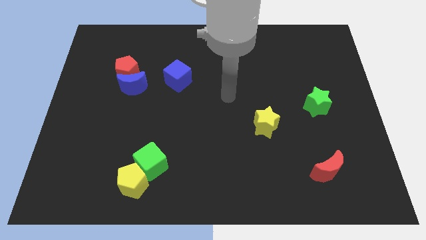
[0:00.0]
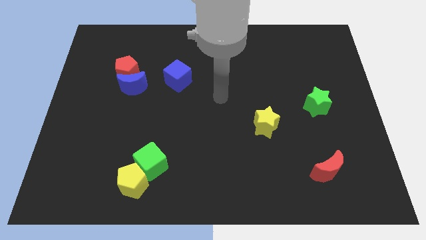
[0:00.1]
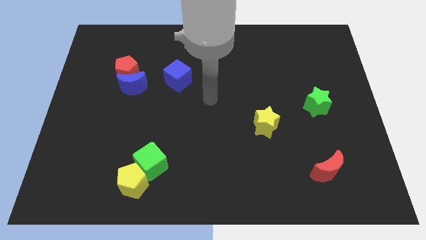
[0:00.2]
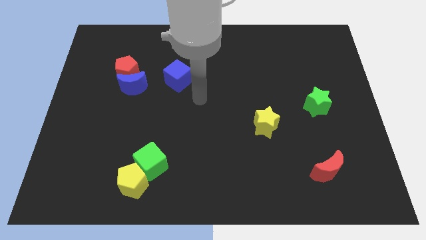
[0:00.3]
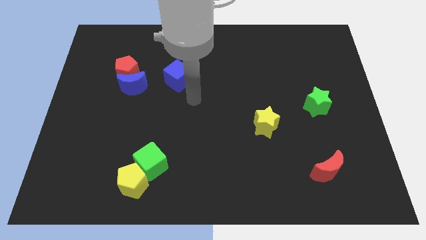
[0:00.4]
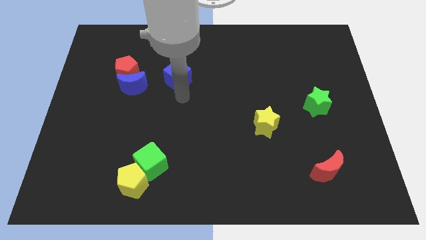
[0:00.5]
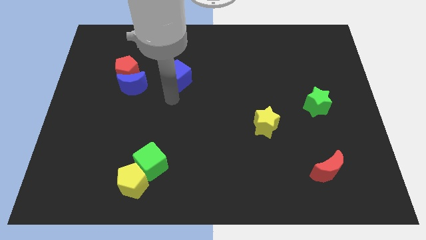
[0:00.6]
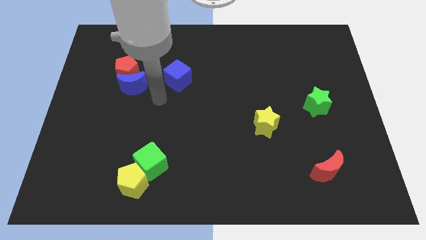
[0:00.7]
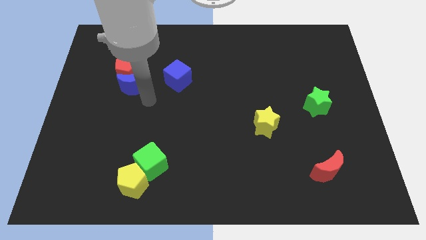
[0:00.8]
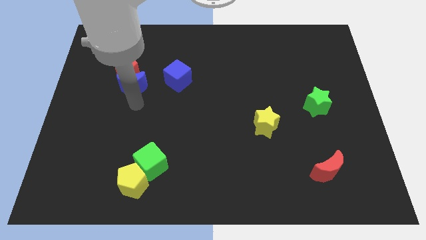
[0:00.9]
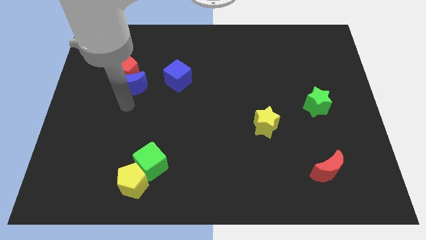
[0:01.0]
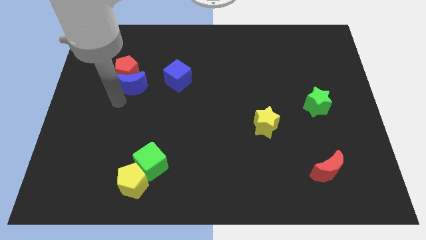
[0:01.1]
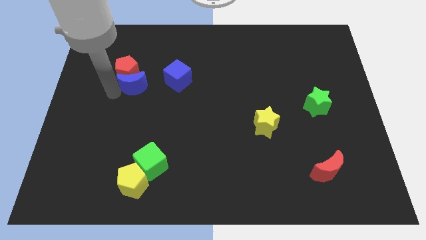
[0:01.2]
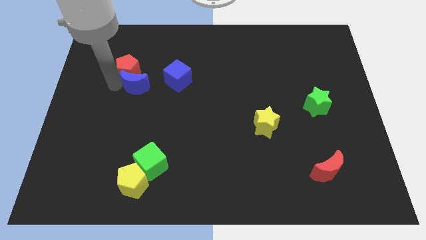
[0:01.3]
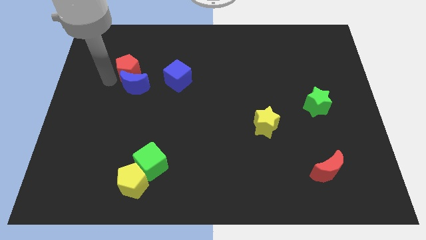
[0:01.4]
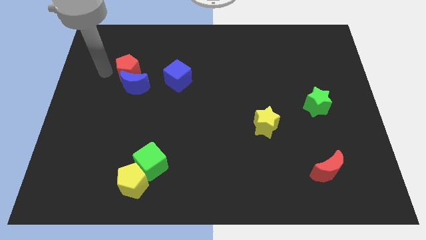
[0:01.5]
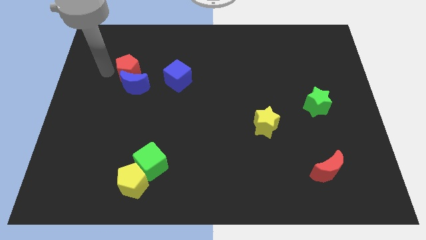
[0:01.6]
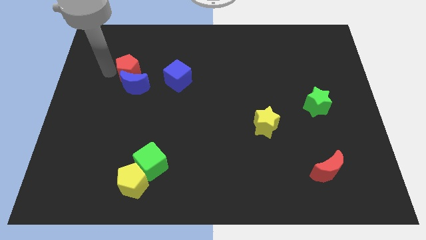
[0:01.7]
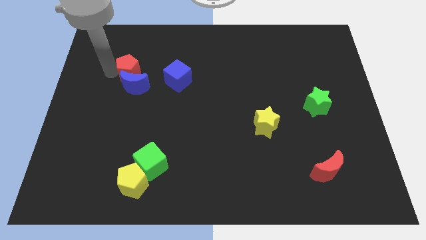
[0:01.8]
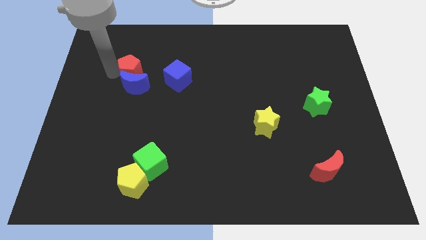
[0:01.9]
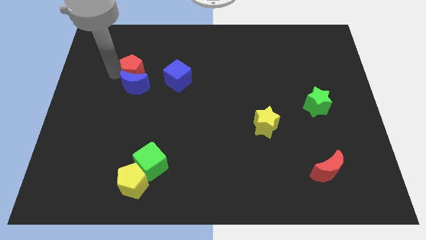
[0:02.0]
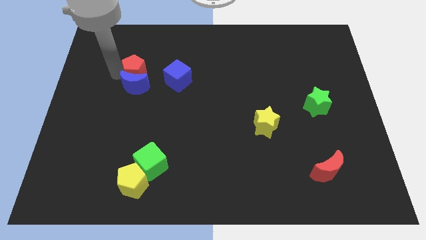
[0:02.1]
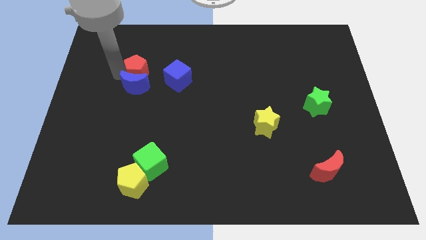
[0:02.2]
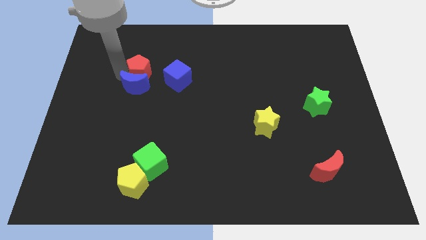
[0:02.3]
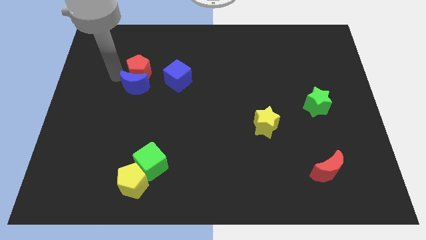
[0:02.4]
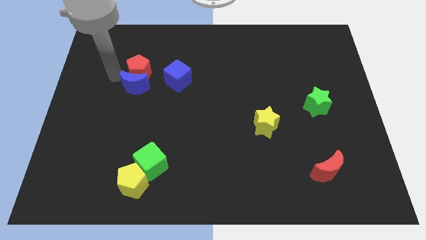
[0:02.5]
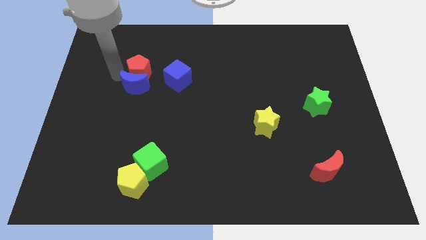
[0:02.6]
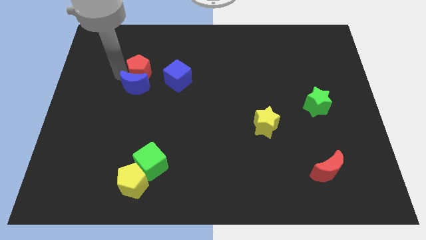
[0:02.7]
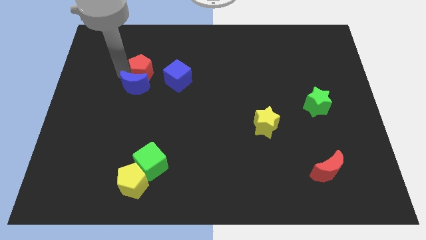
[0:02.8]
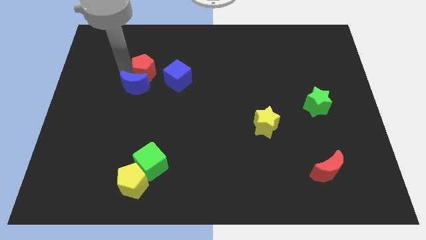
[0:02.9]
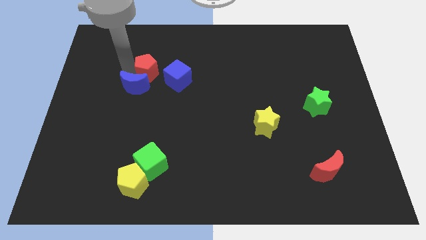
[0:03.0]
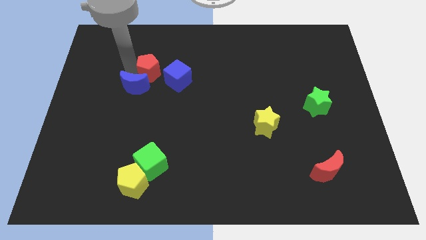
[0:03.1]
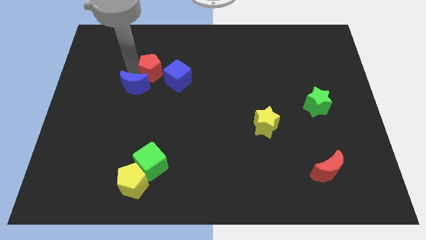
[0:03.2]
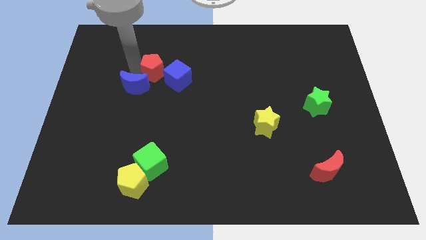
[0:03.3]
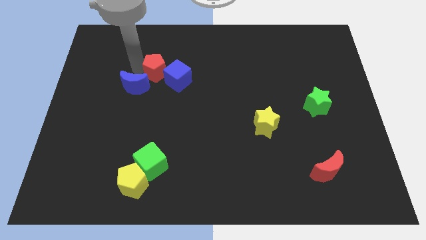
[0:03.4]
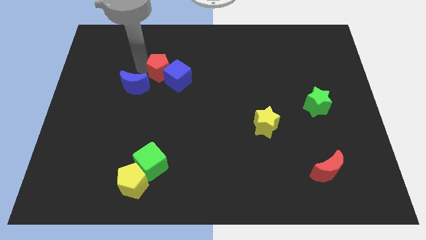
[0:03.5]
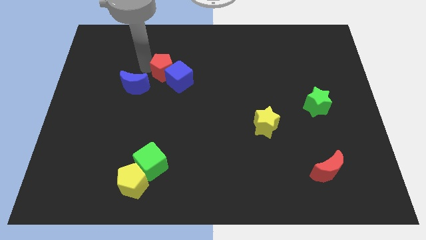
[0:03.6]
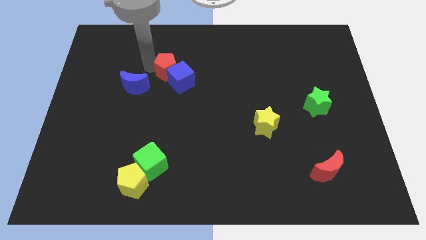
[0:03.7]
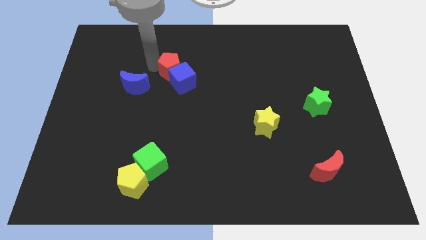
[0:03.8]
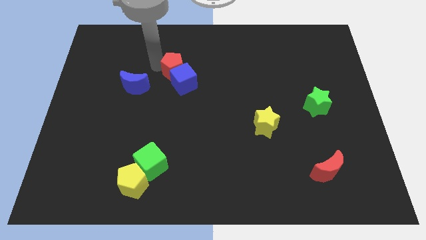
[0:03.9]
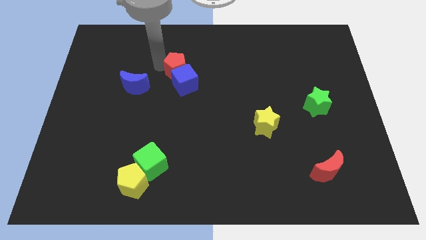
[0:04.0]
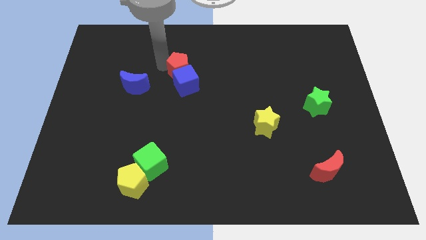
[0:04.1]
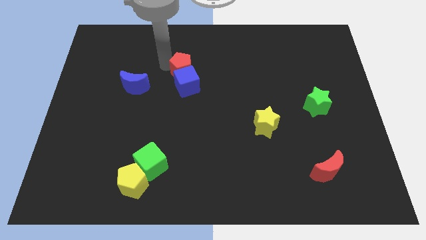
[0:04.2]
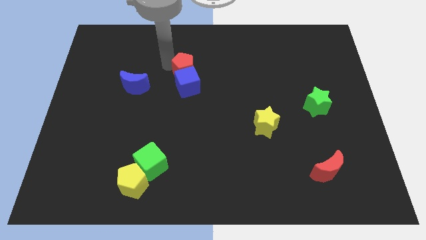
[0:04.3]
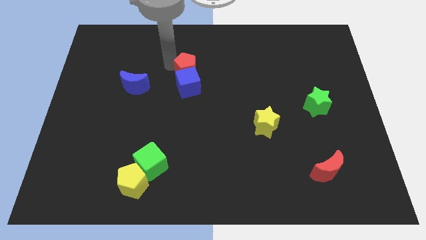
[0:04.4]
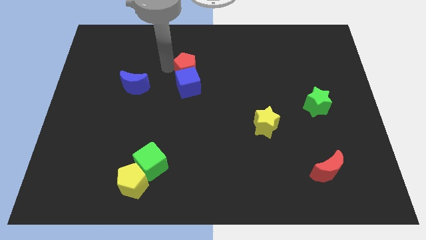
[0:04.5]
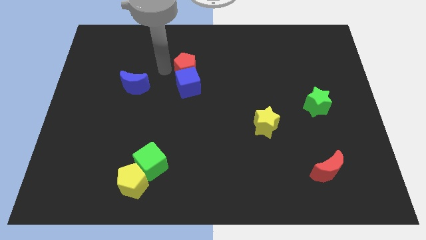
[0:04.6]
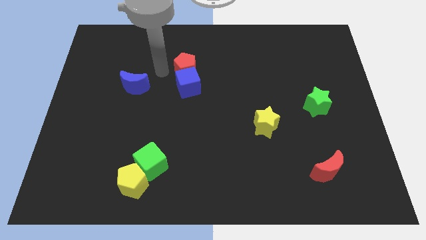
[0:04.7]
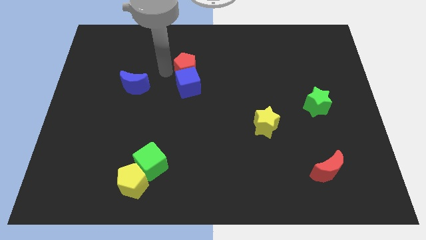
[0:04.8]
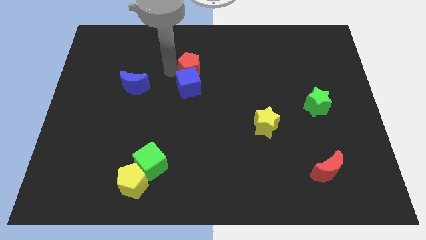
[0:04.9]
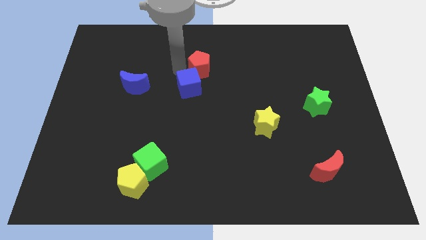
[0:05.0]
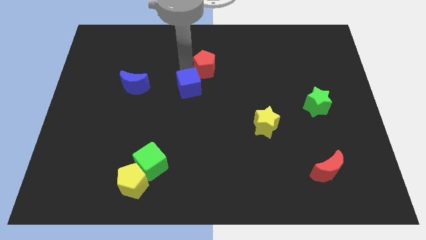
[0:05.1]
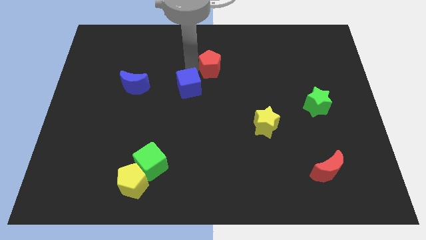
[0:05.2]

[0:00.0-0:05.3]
push the red pentagon right

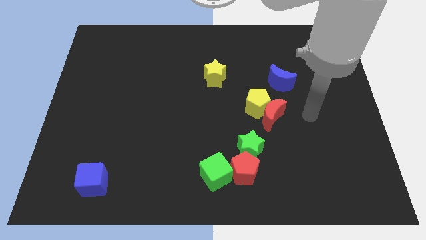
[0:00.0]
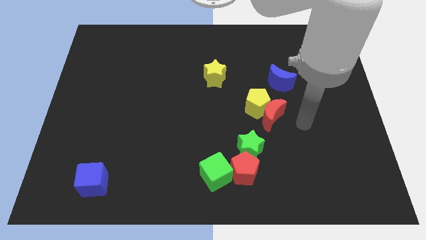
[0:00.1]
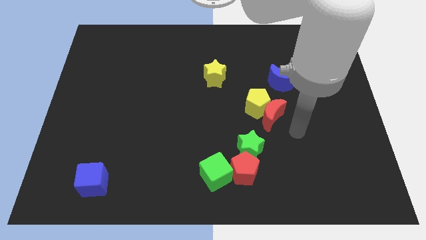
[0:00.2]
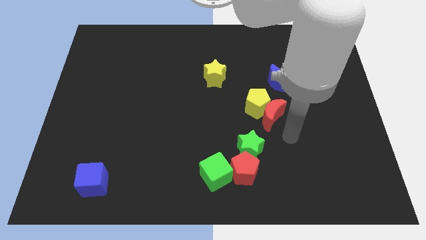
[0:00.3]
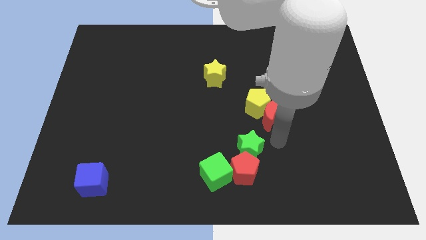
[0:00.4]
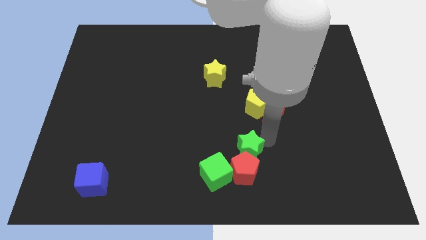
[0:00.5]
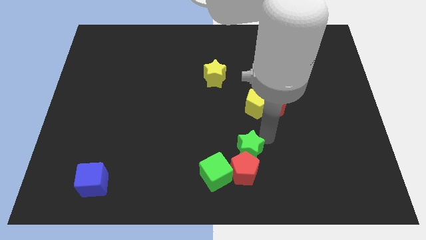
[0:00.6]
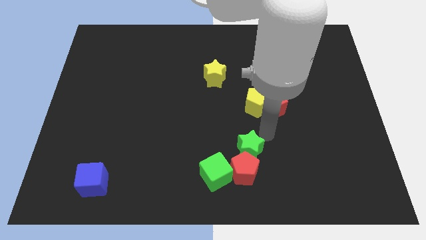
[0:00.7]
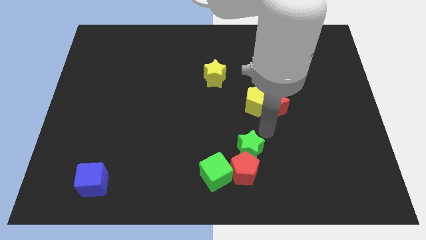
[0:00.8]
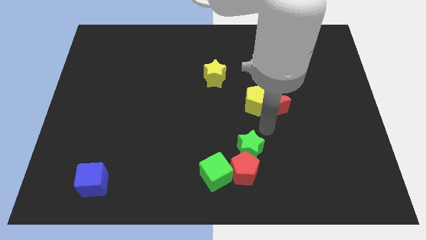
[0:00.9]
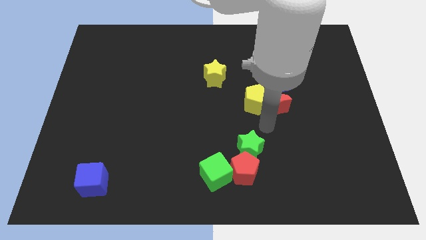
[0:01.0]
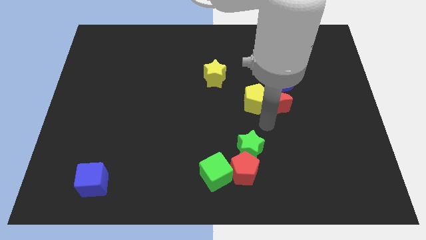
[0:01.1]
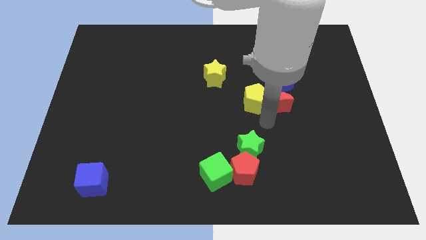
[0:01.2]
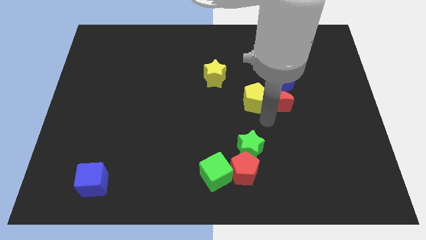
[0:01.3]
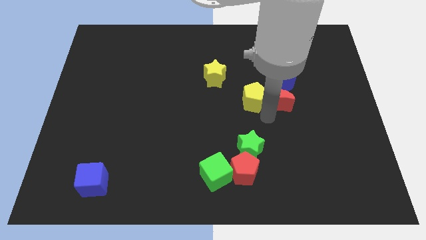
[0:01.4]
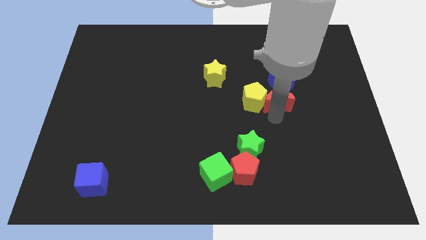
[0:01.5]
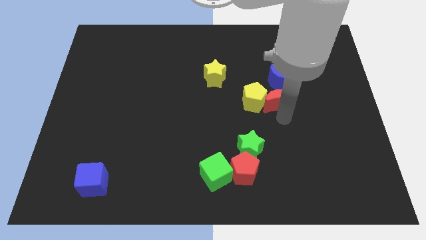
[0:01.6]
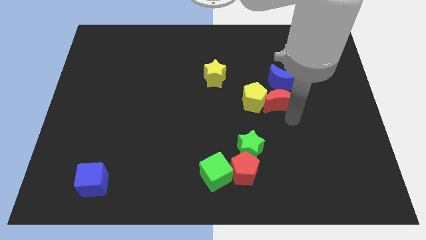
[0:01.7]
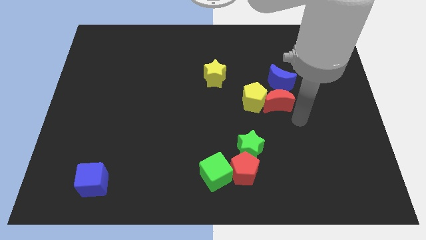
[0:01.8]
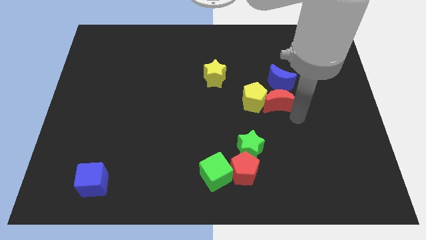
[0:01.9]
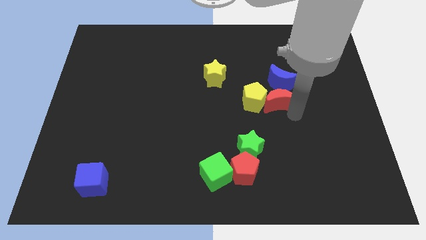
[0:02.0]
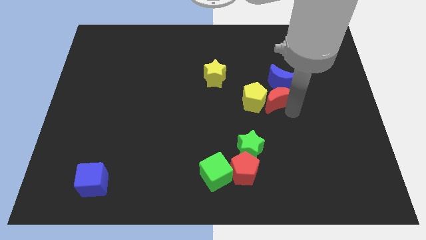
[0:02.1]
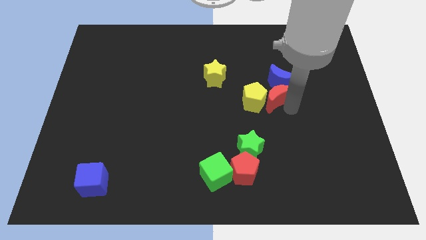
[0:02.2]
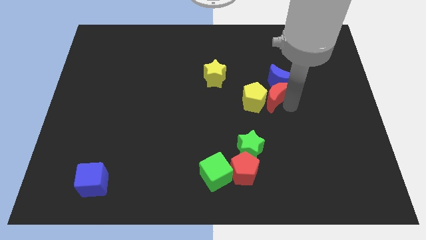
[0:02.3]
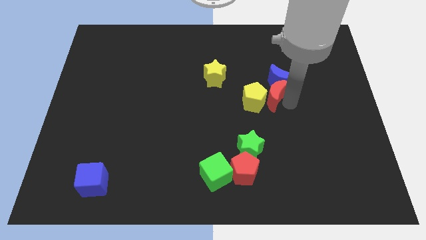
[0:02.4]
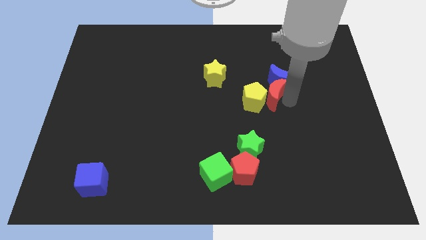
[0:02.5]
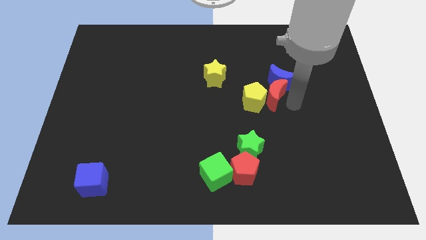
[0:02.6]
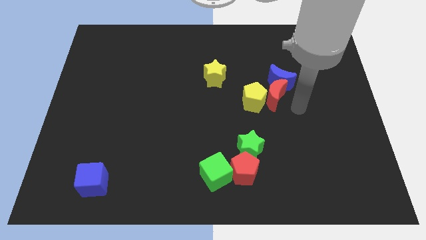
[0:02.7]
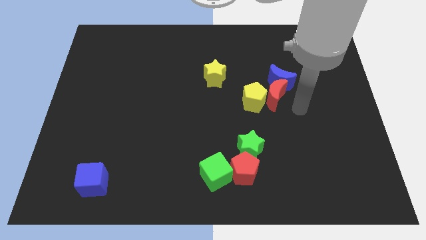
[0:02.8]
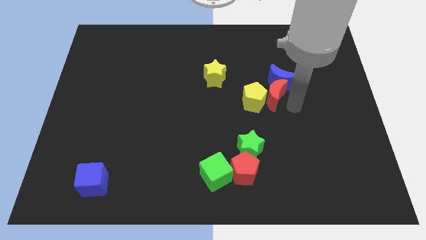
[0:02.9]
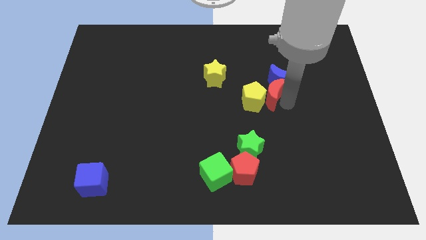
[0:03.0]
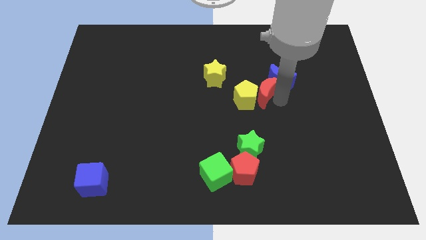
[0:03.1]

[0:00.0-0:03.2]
slide the red moon a little bit up
